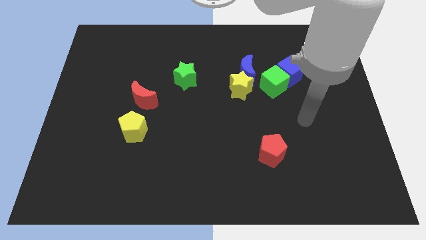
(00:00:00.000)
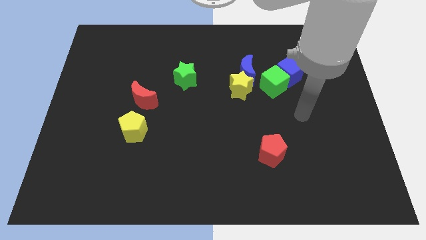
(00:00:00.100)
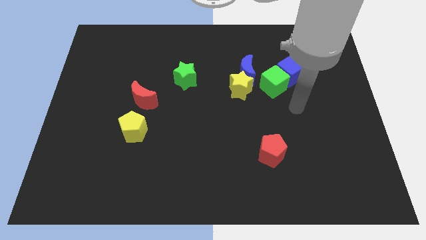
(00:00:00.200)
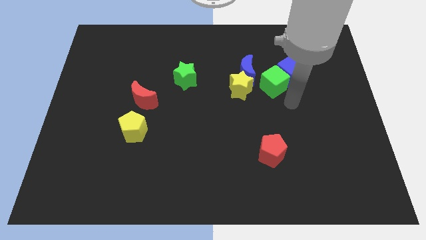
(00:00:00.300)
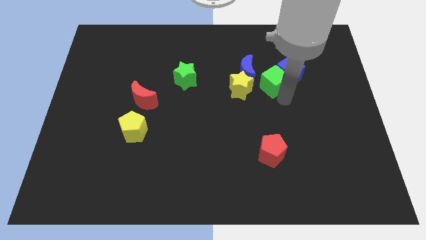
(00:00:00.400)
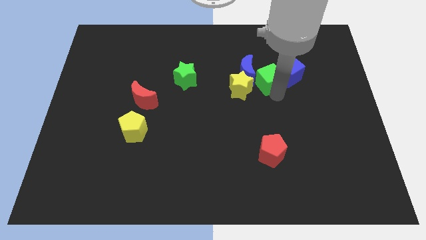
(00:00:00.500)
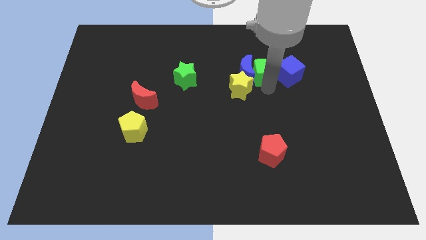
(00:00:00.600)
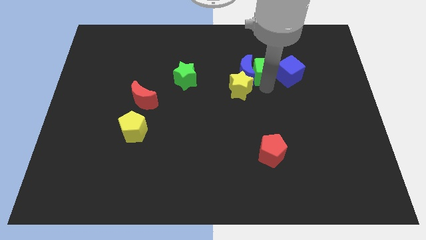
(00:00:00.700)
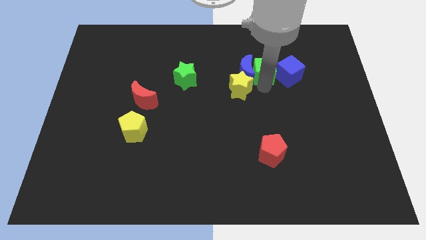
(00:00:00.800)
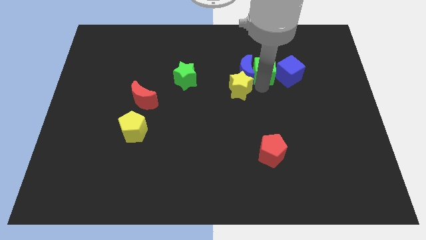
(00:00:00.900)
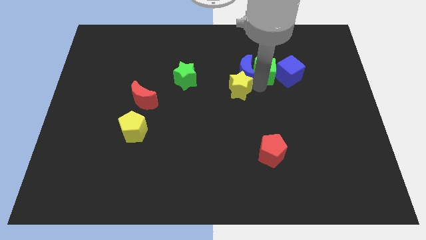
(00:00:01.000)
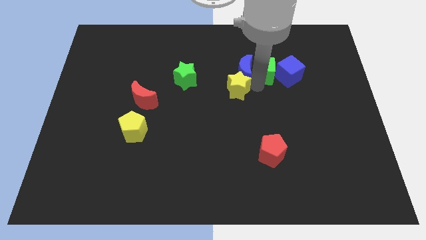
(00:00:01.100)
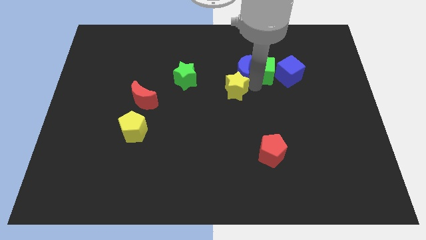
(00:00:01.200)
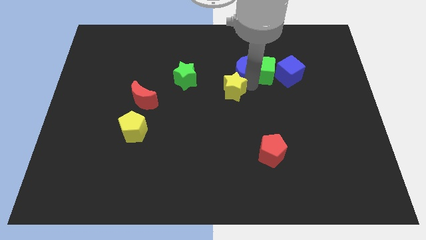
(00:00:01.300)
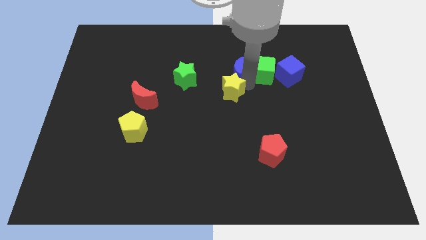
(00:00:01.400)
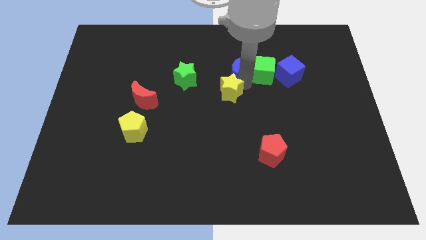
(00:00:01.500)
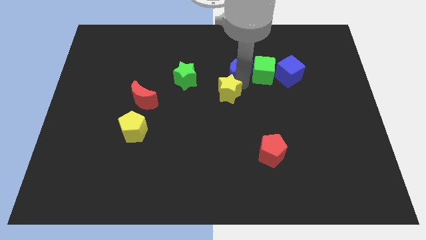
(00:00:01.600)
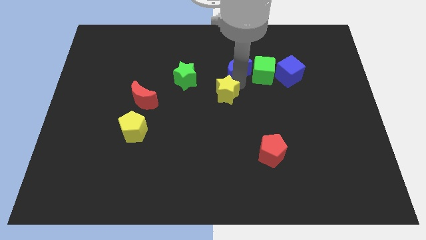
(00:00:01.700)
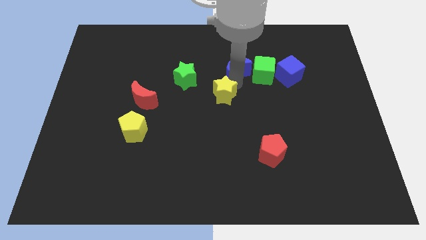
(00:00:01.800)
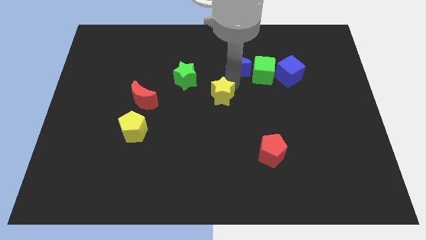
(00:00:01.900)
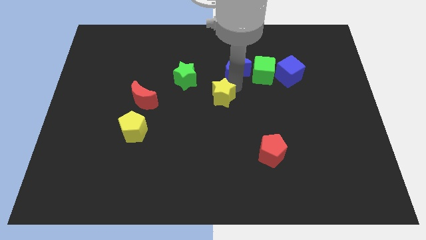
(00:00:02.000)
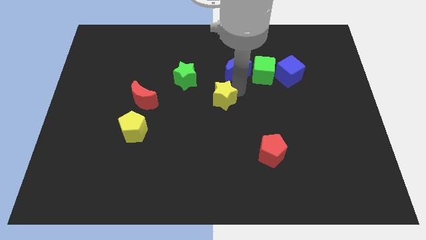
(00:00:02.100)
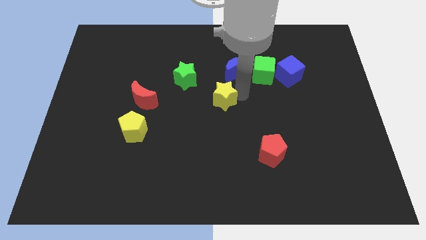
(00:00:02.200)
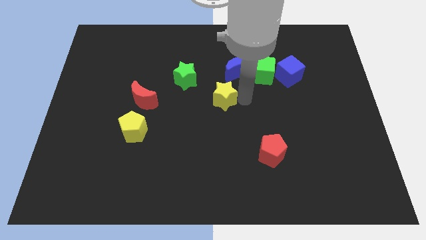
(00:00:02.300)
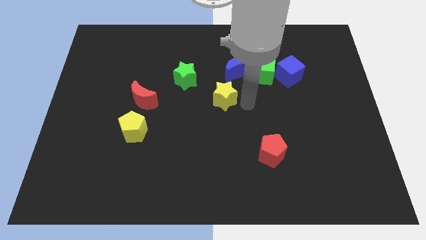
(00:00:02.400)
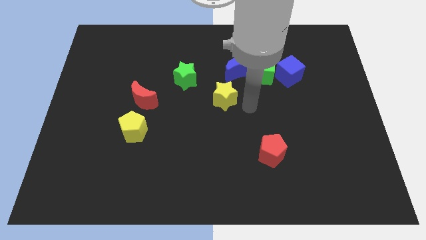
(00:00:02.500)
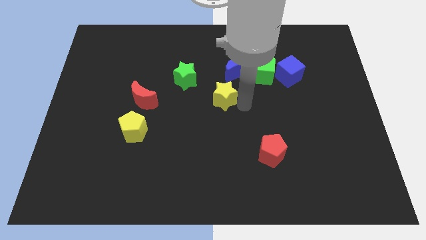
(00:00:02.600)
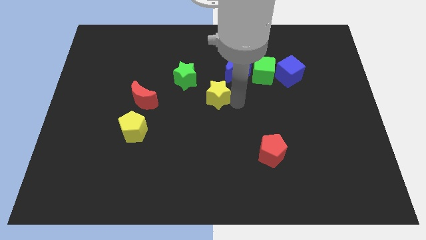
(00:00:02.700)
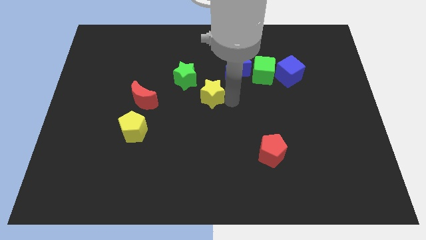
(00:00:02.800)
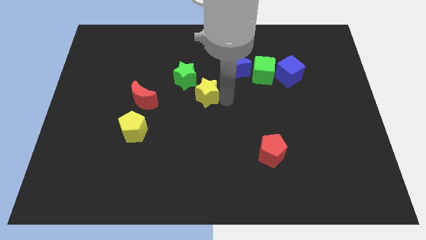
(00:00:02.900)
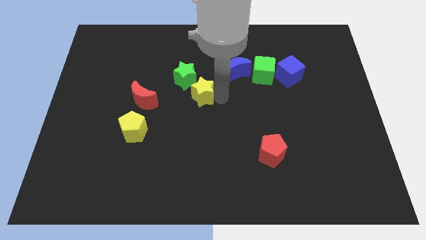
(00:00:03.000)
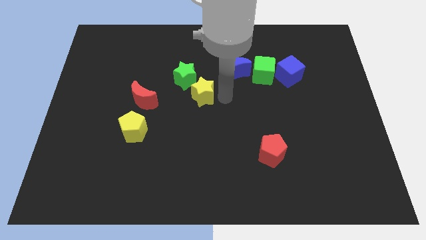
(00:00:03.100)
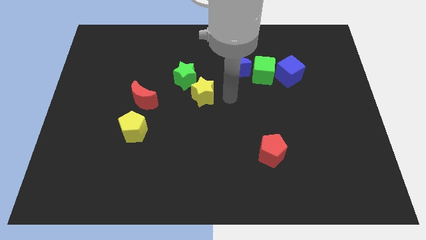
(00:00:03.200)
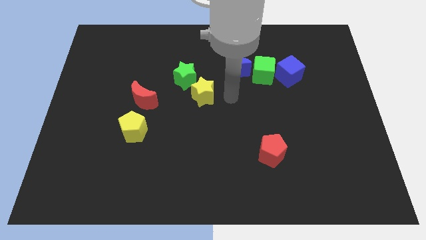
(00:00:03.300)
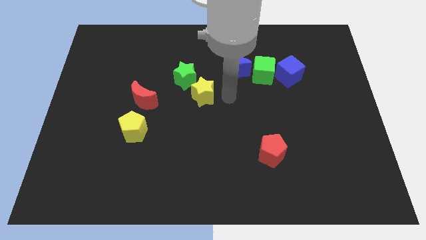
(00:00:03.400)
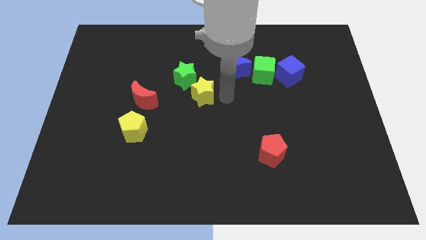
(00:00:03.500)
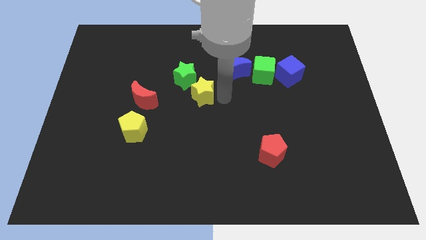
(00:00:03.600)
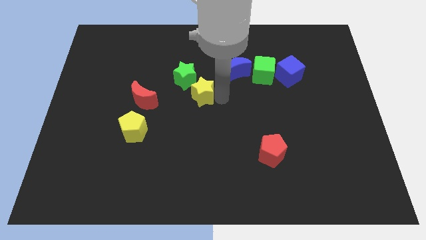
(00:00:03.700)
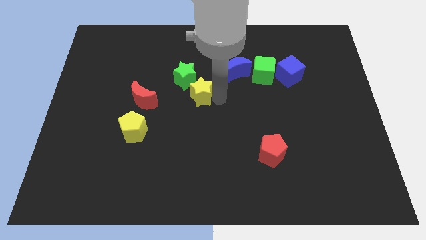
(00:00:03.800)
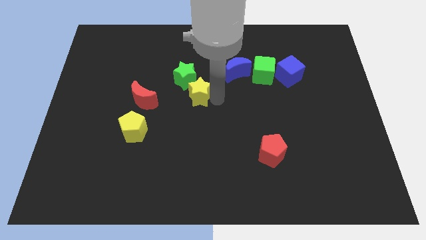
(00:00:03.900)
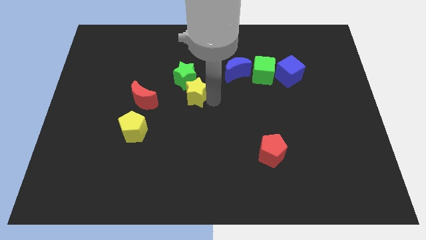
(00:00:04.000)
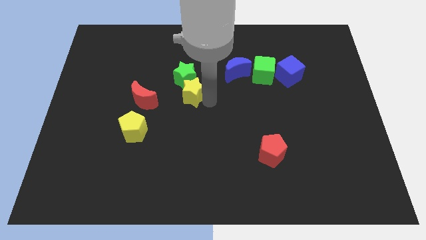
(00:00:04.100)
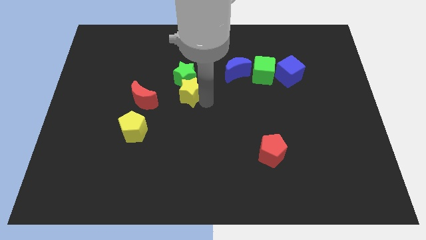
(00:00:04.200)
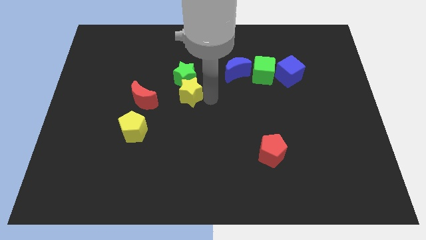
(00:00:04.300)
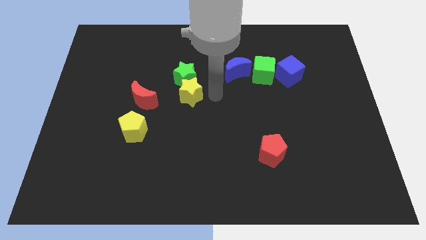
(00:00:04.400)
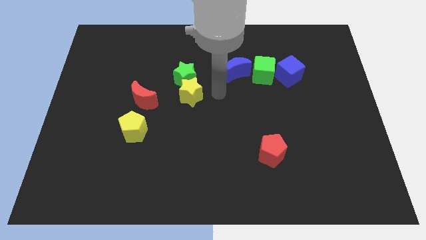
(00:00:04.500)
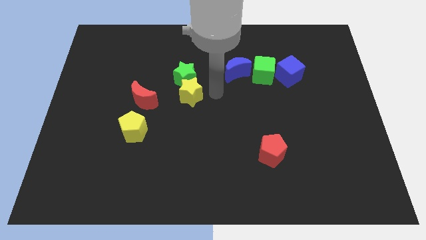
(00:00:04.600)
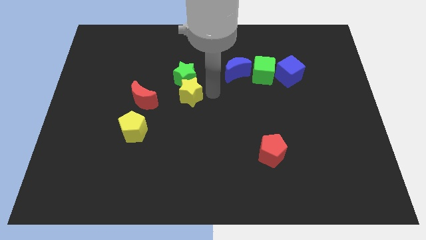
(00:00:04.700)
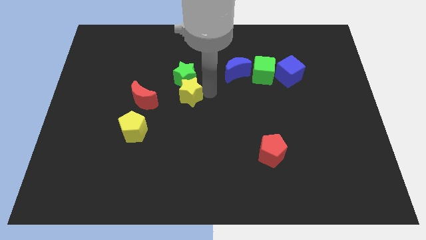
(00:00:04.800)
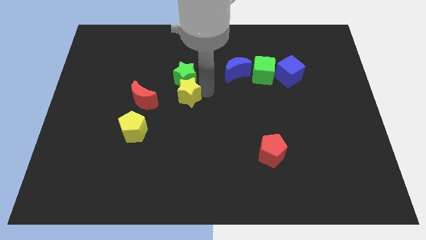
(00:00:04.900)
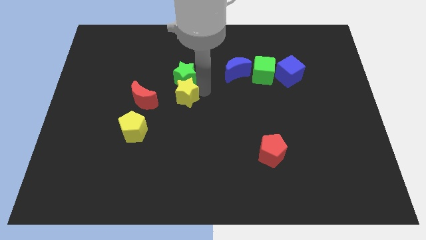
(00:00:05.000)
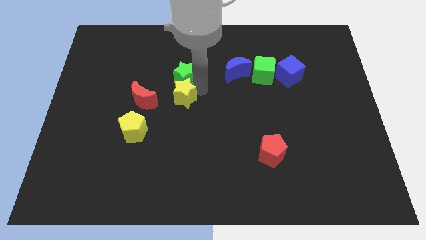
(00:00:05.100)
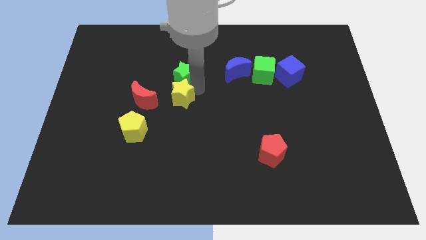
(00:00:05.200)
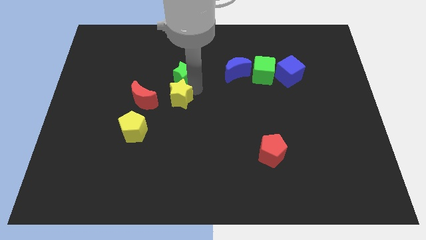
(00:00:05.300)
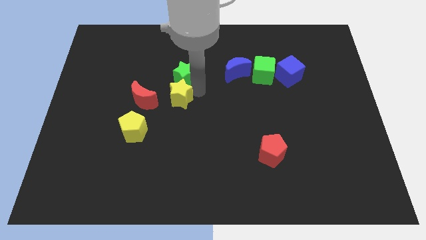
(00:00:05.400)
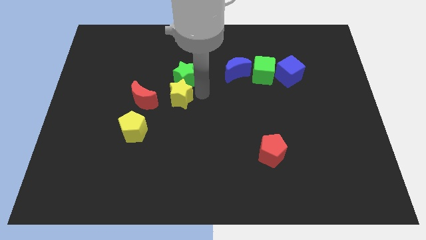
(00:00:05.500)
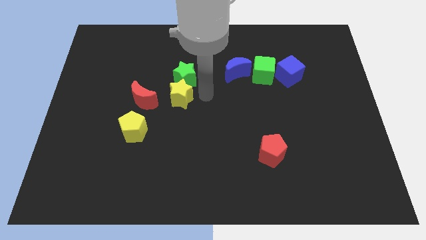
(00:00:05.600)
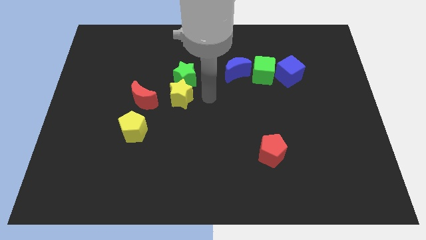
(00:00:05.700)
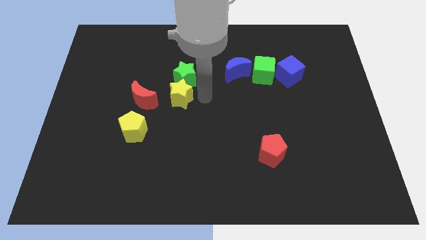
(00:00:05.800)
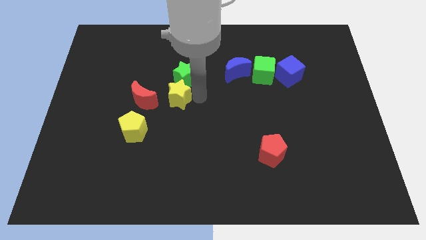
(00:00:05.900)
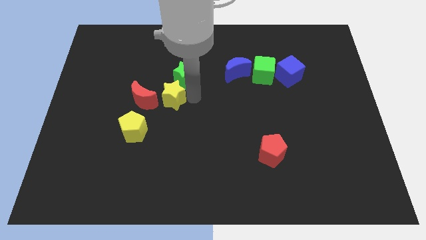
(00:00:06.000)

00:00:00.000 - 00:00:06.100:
move the yellow star diagonally up and to the right of the red moon
